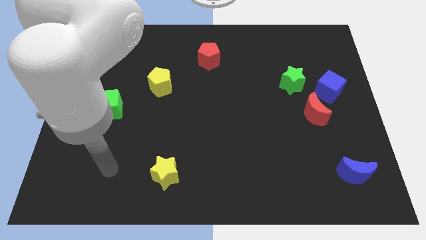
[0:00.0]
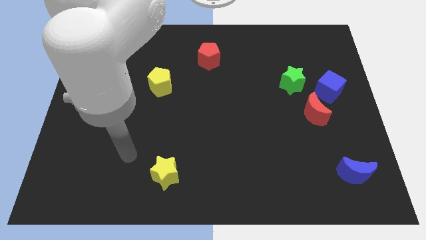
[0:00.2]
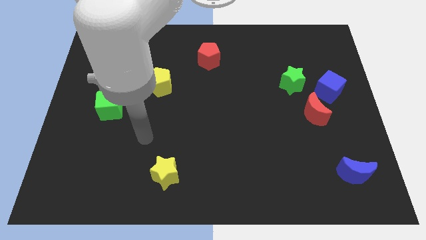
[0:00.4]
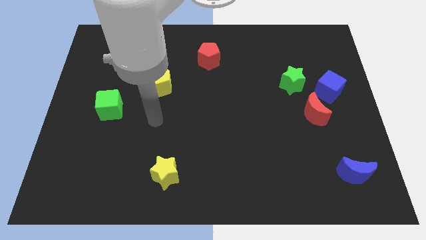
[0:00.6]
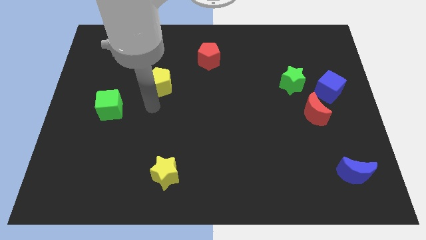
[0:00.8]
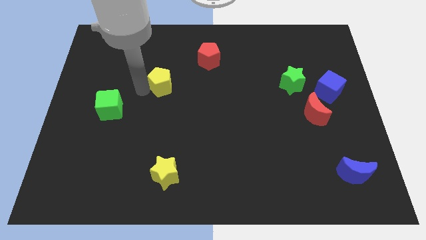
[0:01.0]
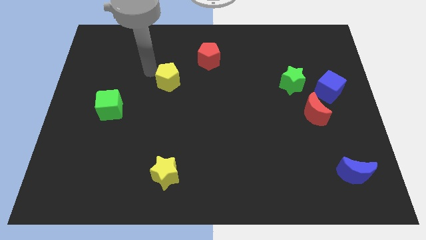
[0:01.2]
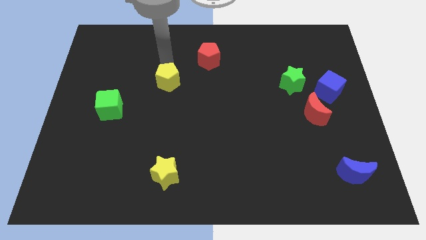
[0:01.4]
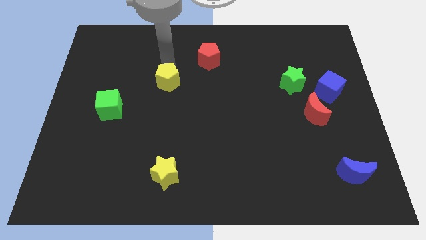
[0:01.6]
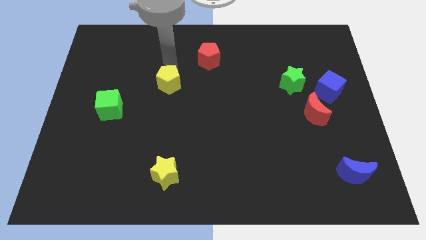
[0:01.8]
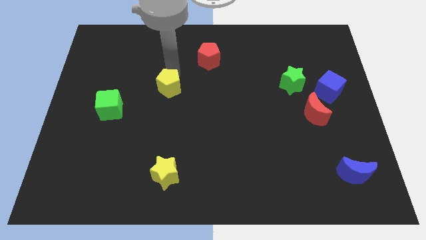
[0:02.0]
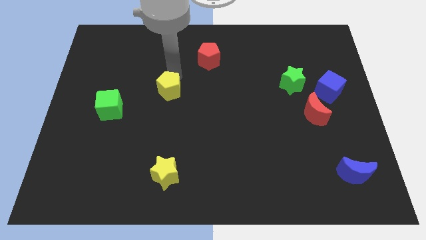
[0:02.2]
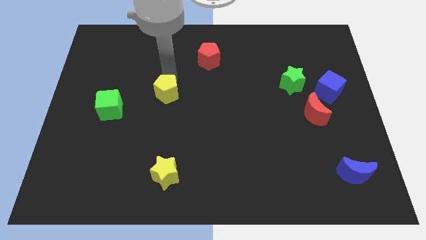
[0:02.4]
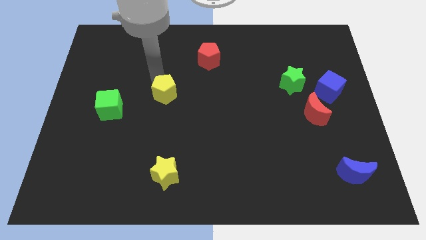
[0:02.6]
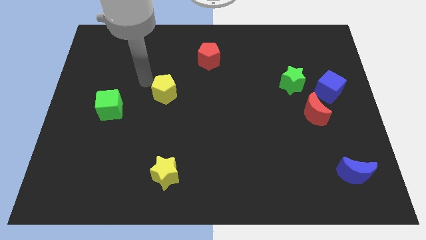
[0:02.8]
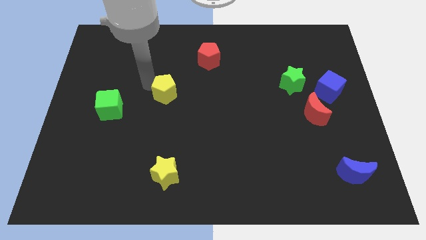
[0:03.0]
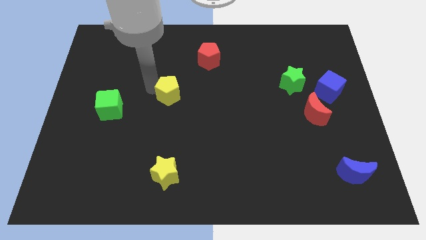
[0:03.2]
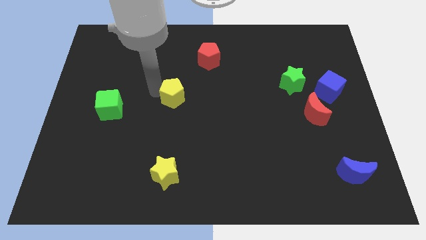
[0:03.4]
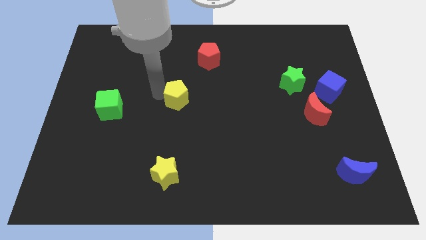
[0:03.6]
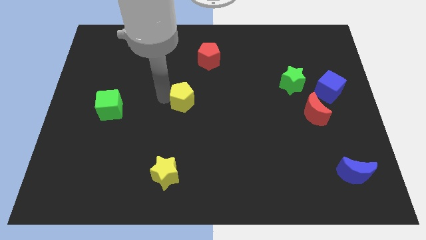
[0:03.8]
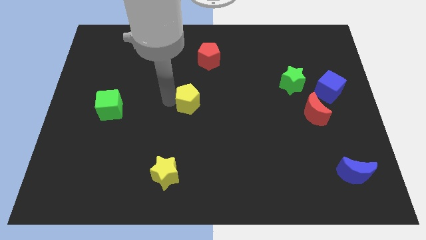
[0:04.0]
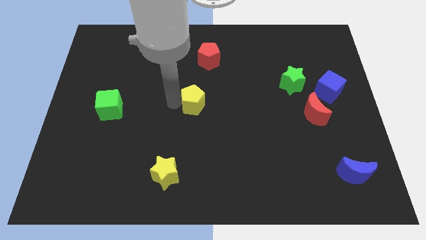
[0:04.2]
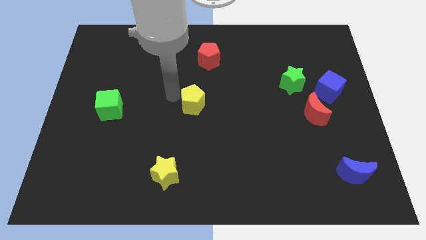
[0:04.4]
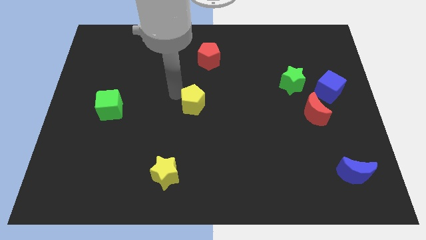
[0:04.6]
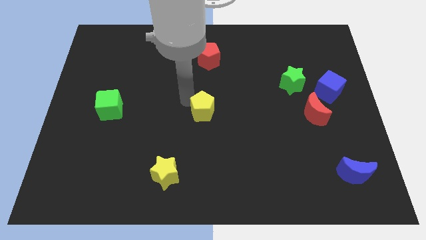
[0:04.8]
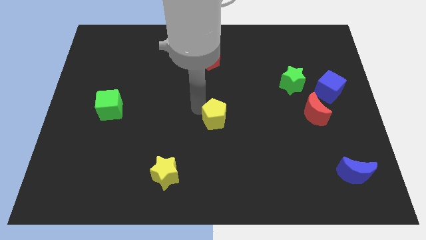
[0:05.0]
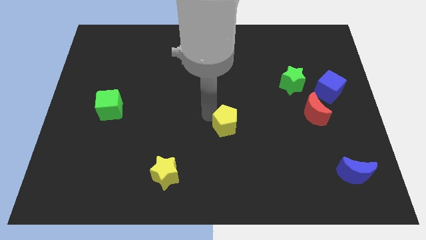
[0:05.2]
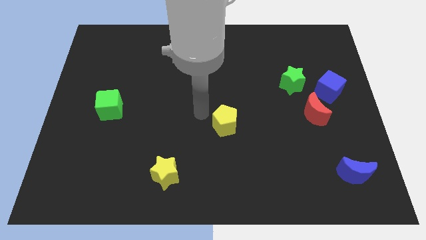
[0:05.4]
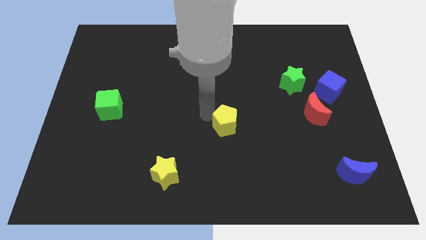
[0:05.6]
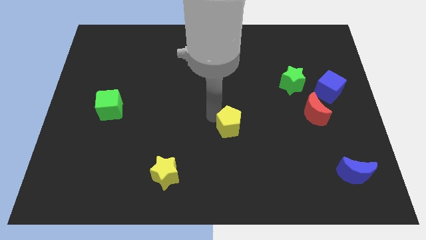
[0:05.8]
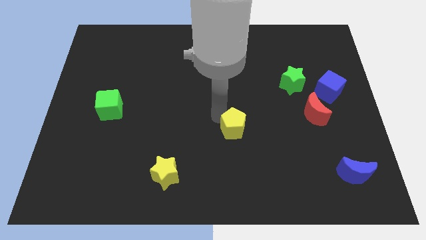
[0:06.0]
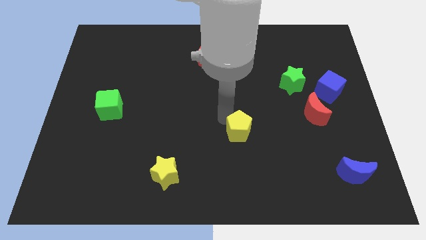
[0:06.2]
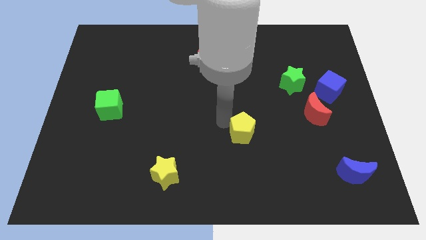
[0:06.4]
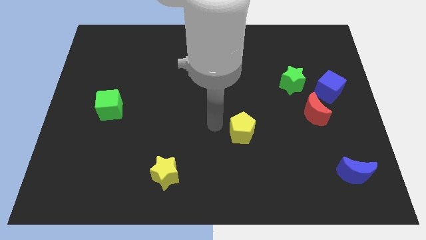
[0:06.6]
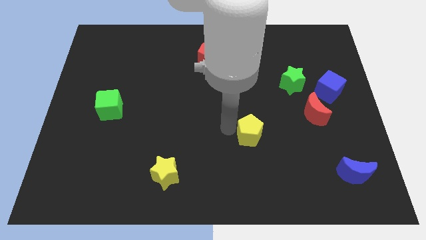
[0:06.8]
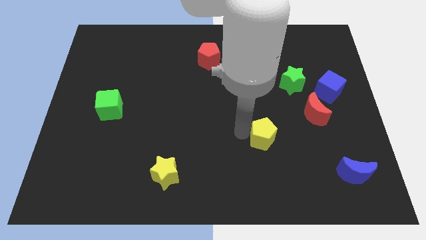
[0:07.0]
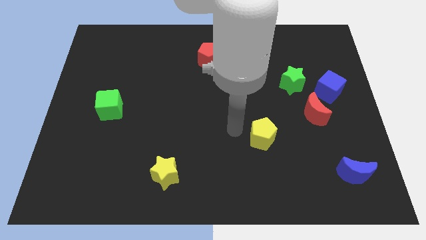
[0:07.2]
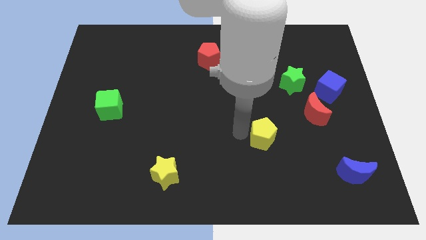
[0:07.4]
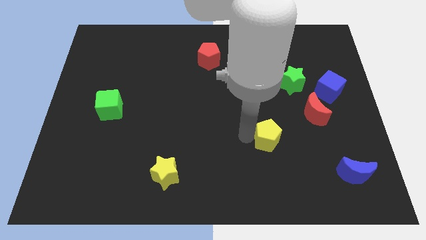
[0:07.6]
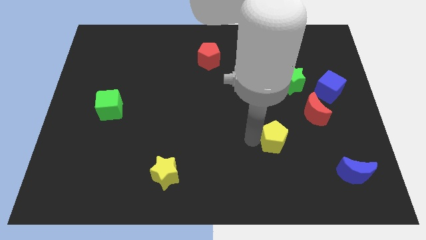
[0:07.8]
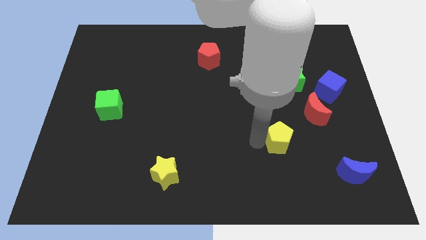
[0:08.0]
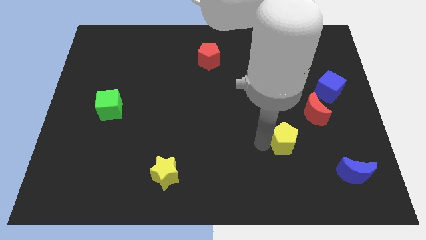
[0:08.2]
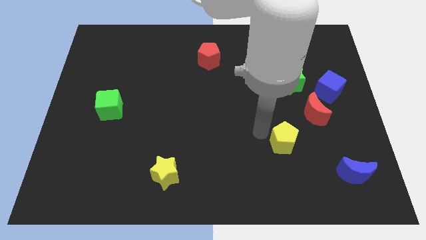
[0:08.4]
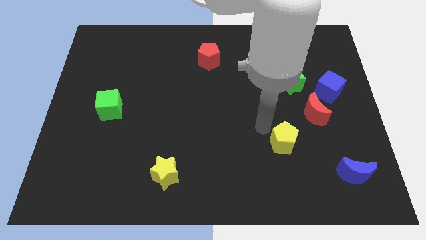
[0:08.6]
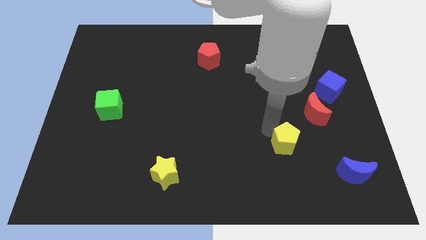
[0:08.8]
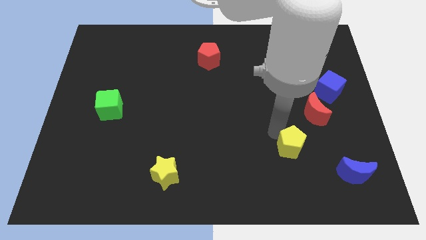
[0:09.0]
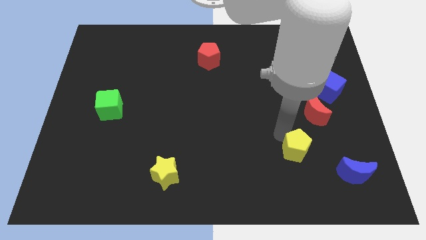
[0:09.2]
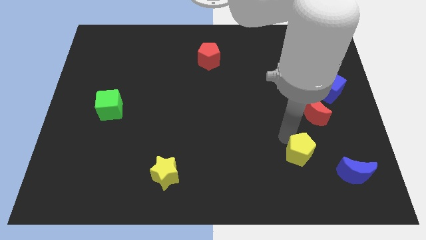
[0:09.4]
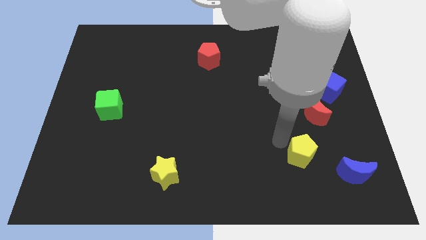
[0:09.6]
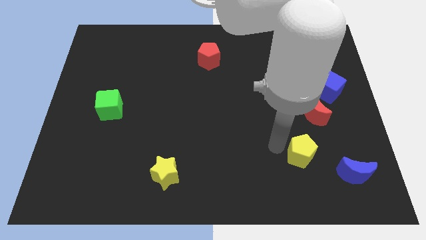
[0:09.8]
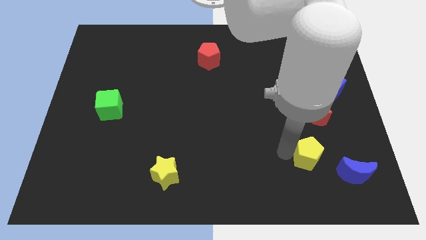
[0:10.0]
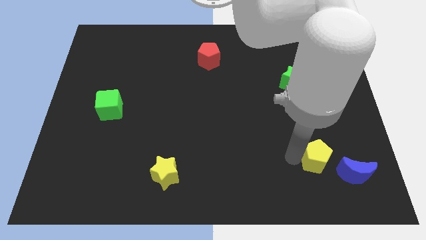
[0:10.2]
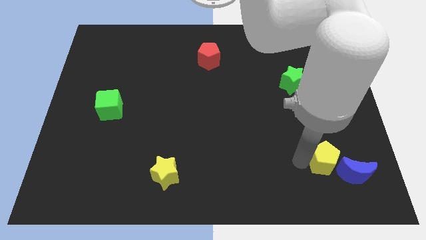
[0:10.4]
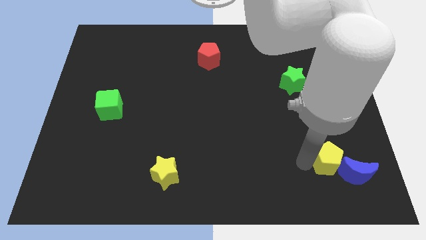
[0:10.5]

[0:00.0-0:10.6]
push the yellow pentagon close to the blue moon

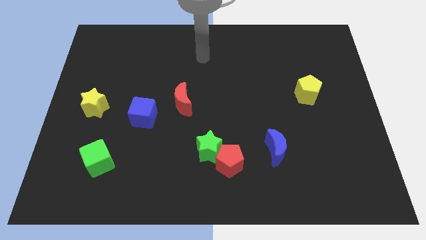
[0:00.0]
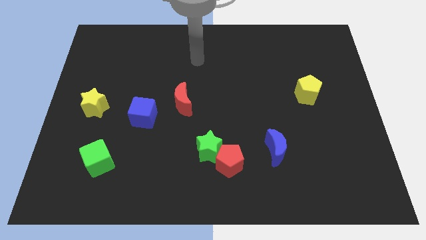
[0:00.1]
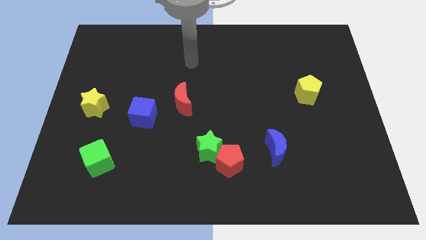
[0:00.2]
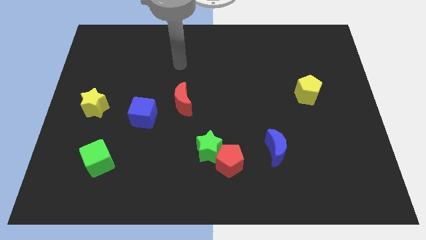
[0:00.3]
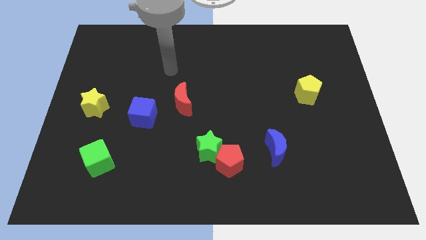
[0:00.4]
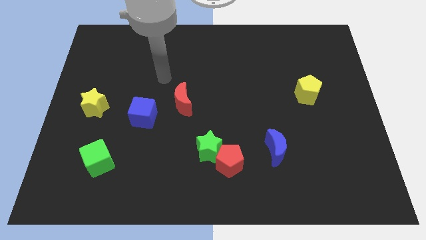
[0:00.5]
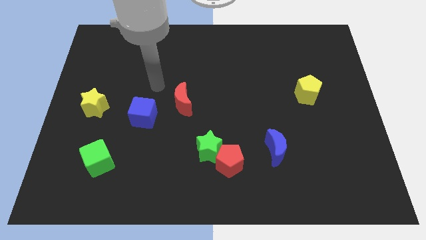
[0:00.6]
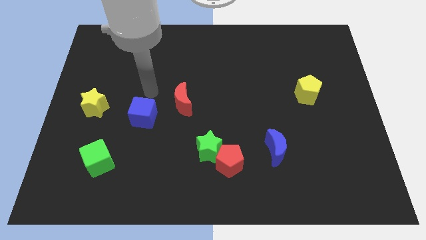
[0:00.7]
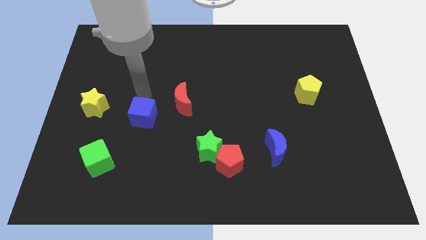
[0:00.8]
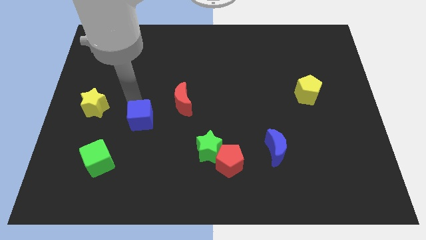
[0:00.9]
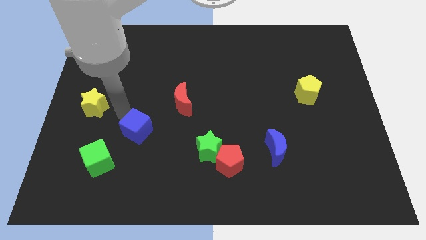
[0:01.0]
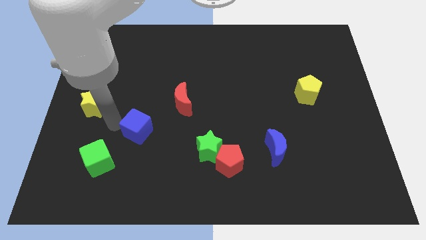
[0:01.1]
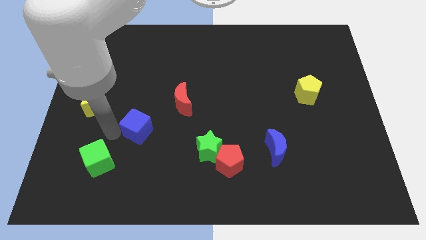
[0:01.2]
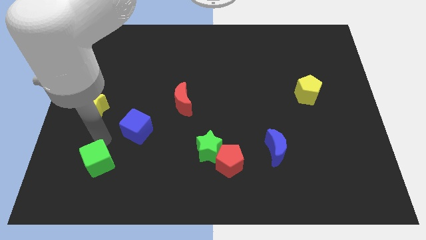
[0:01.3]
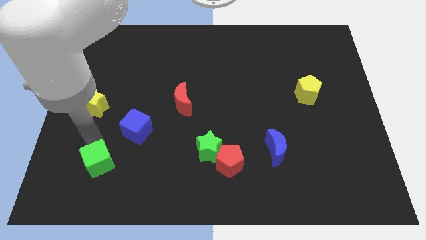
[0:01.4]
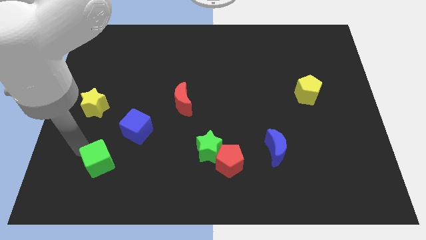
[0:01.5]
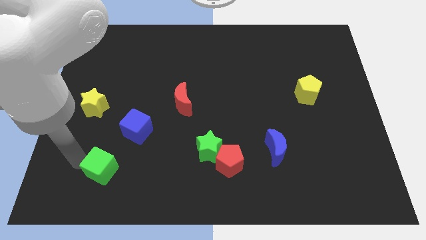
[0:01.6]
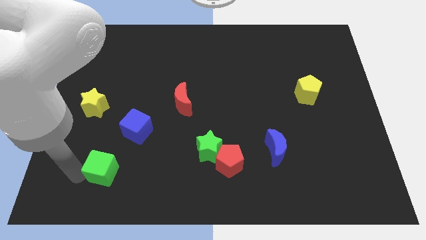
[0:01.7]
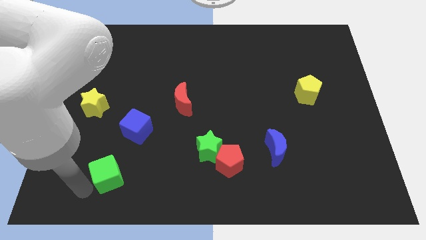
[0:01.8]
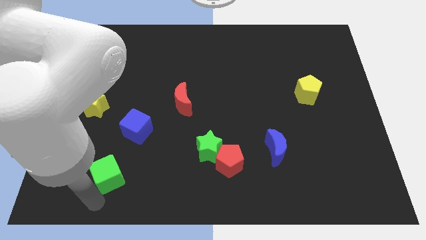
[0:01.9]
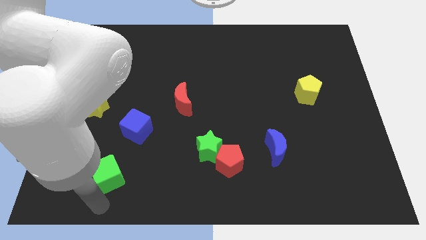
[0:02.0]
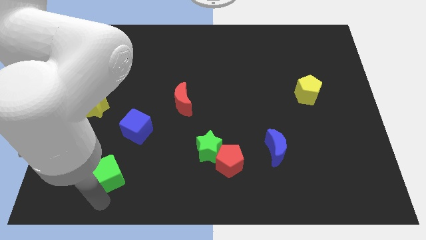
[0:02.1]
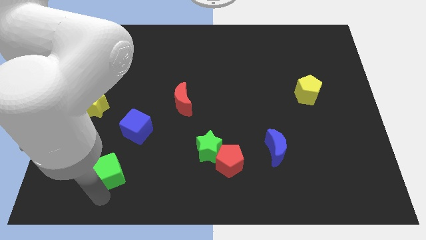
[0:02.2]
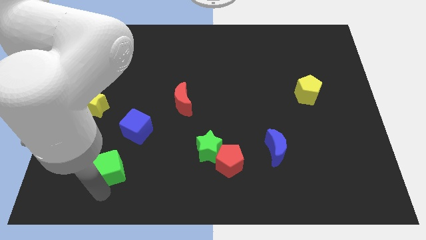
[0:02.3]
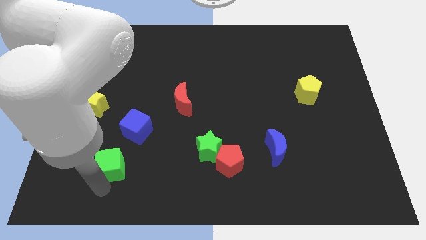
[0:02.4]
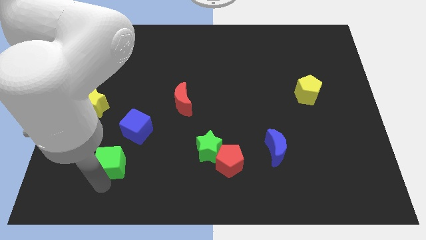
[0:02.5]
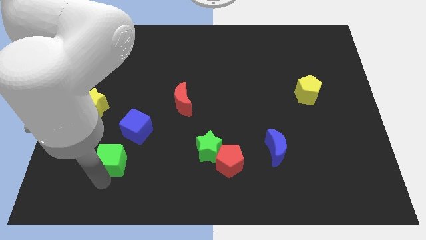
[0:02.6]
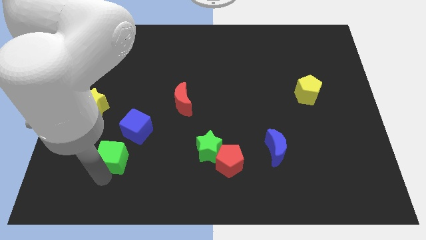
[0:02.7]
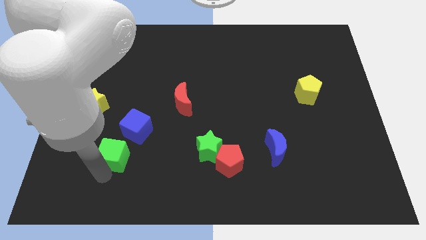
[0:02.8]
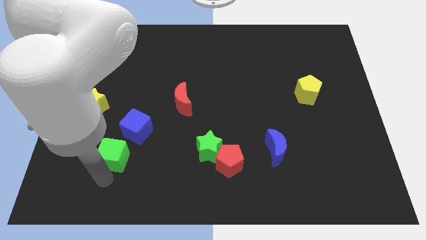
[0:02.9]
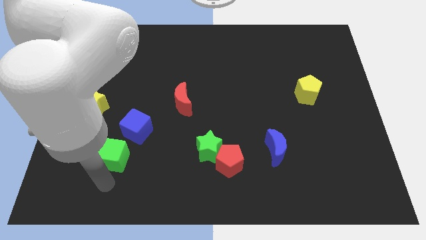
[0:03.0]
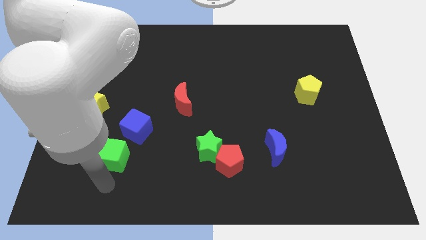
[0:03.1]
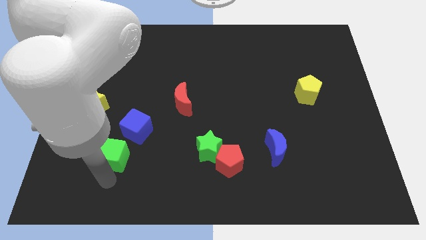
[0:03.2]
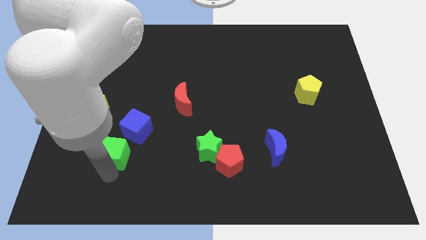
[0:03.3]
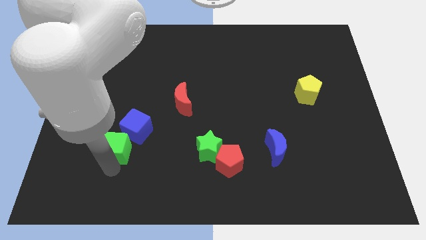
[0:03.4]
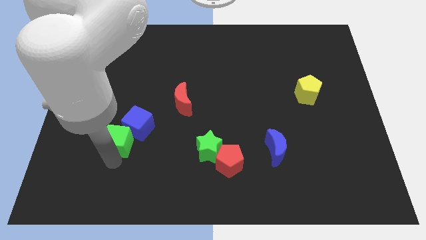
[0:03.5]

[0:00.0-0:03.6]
put the green cube towards the blue cube
